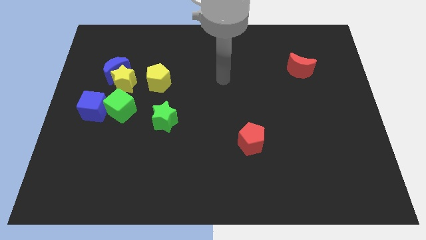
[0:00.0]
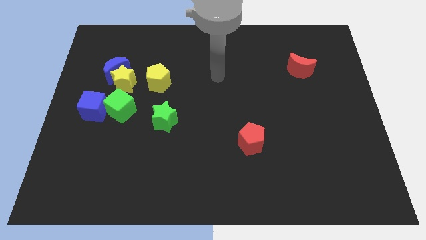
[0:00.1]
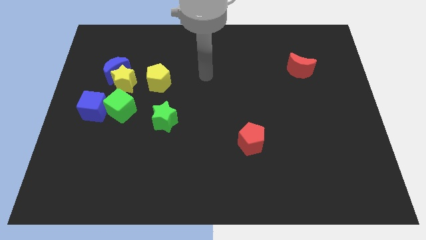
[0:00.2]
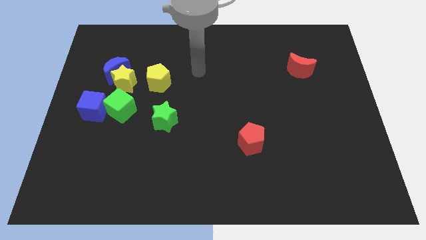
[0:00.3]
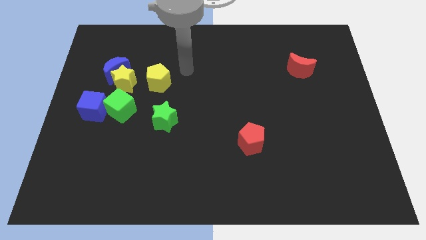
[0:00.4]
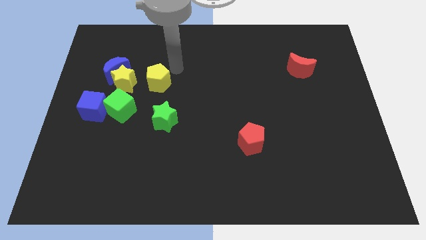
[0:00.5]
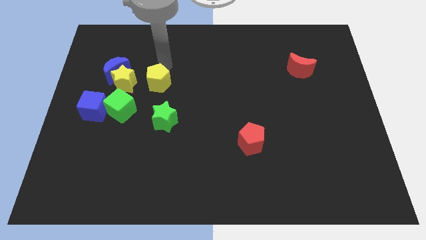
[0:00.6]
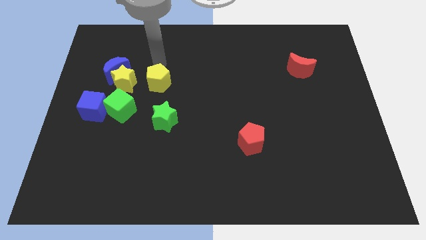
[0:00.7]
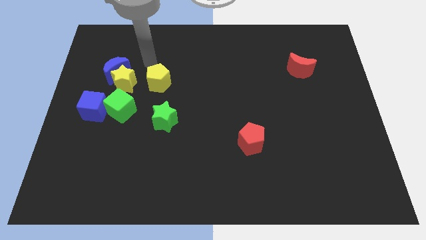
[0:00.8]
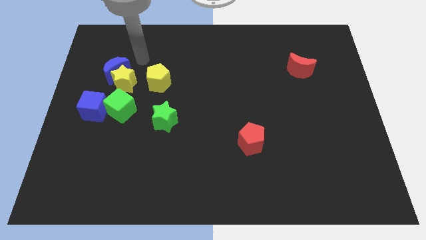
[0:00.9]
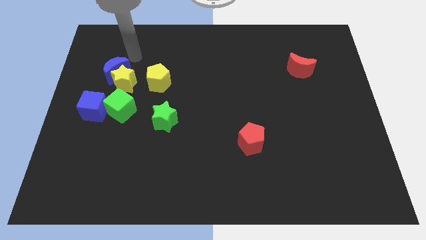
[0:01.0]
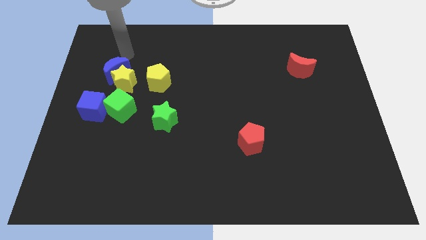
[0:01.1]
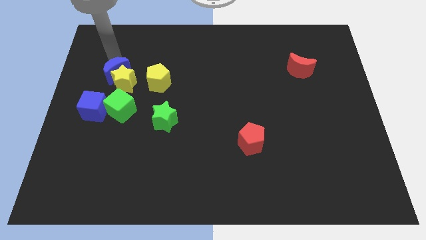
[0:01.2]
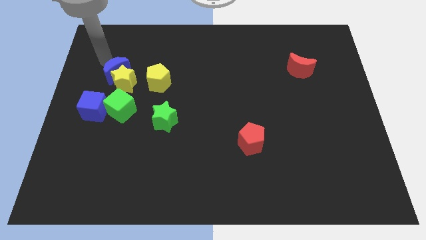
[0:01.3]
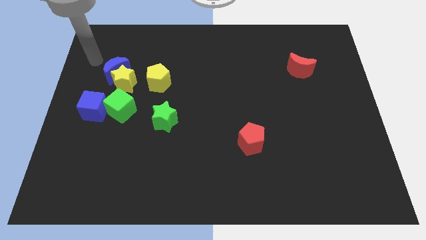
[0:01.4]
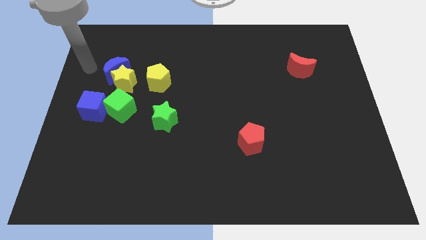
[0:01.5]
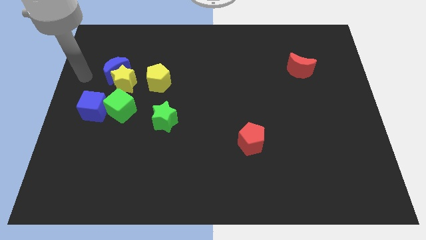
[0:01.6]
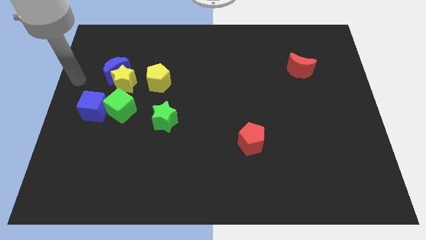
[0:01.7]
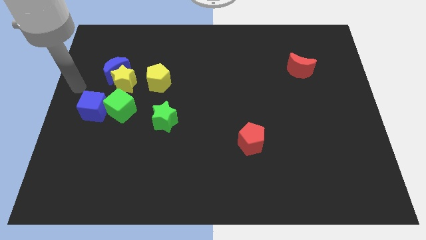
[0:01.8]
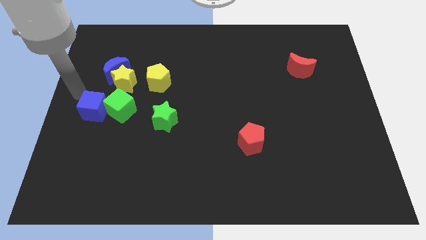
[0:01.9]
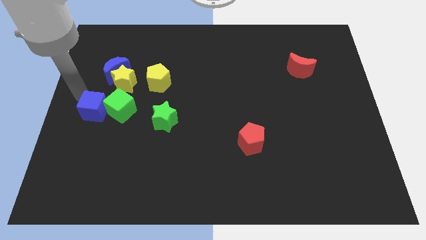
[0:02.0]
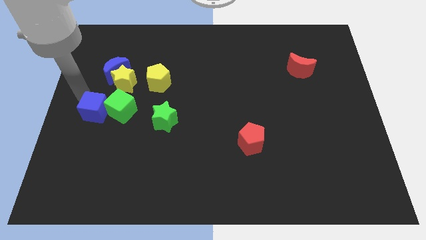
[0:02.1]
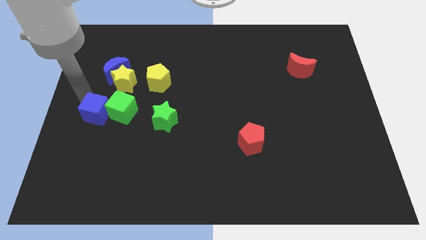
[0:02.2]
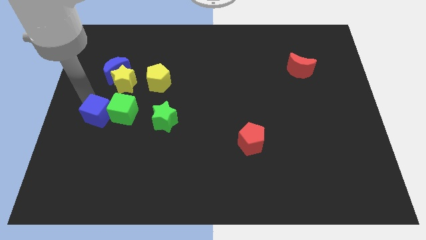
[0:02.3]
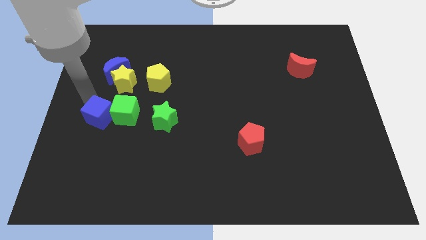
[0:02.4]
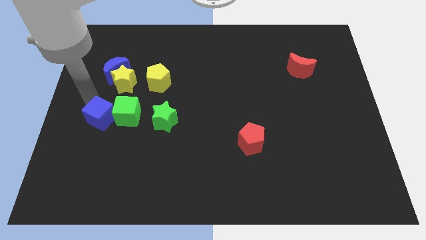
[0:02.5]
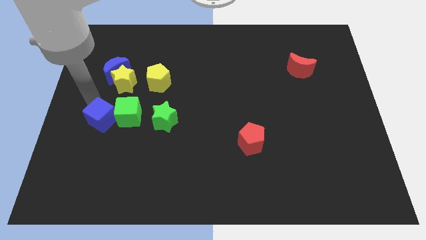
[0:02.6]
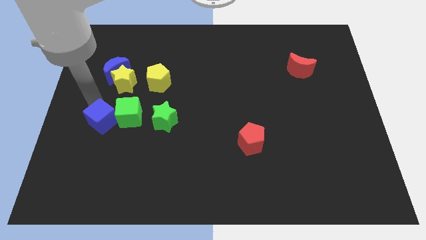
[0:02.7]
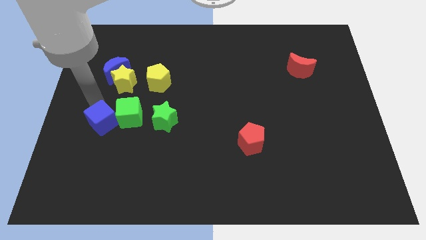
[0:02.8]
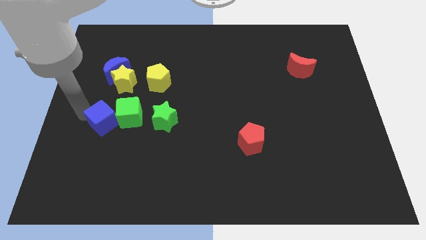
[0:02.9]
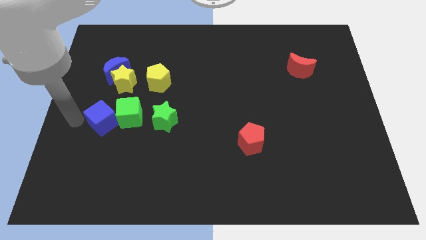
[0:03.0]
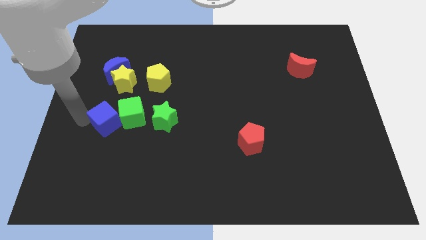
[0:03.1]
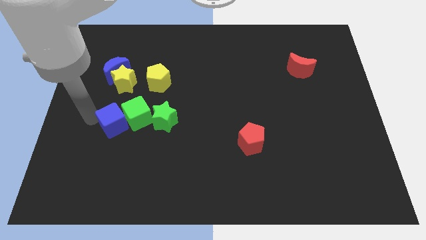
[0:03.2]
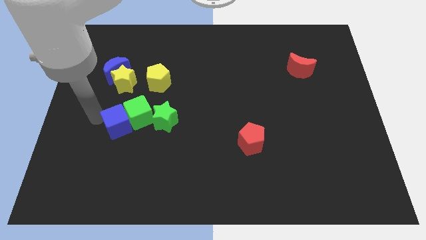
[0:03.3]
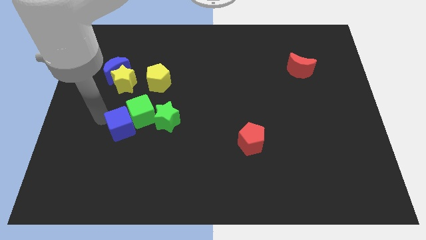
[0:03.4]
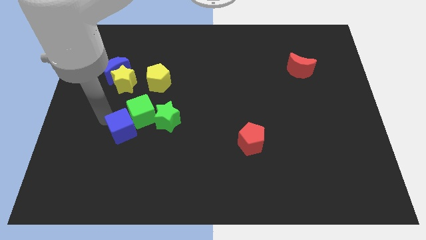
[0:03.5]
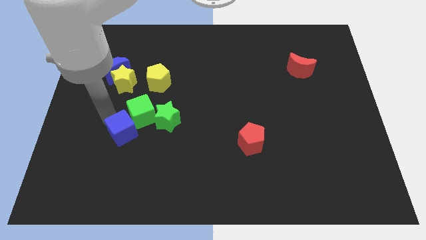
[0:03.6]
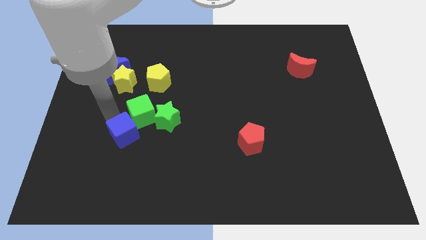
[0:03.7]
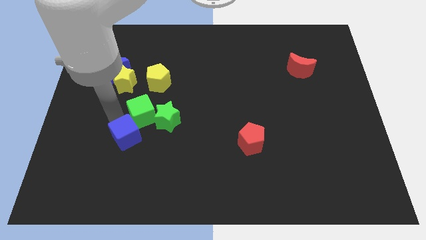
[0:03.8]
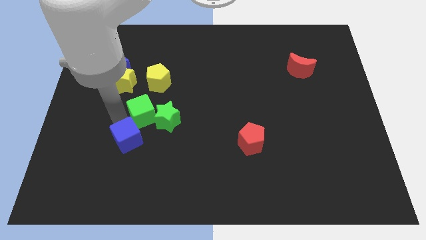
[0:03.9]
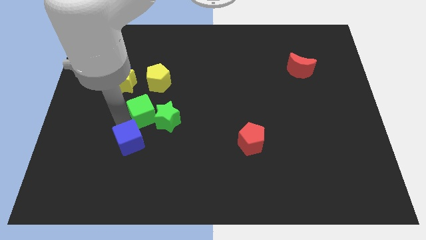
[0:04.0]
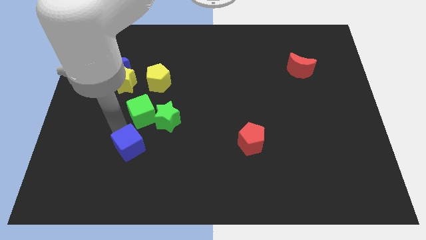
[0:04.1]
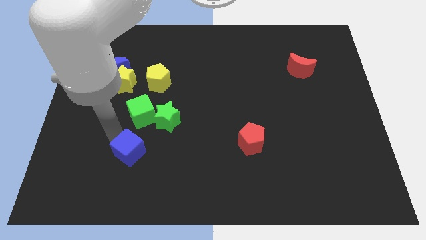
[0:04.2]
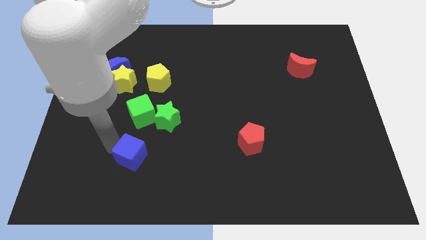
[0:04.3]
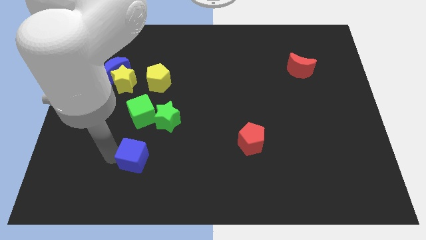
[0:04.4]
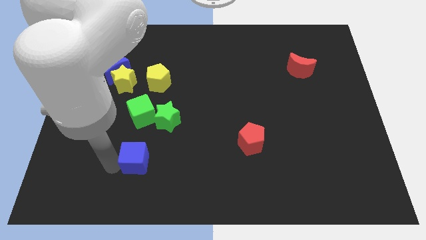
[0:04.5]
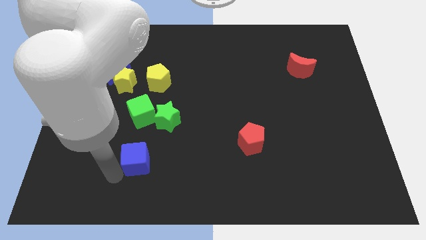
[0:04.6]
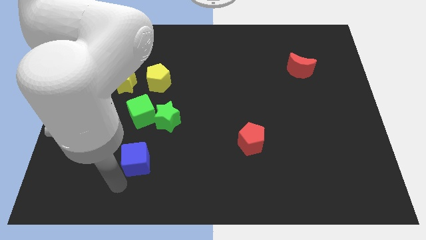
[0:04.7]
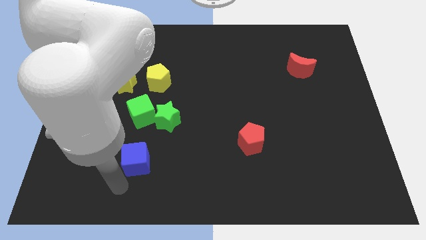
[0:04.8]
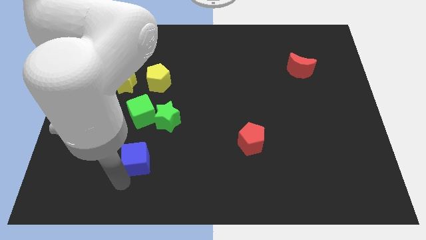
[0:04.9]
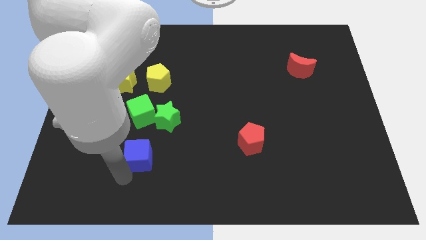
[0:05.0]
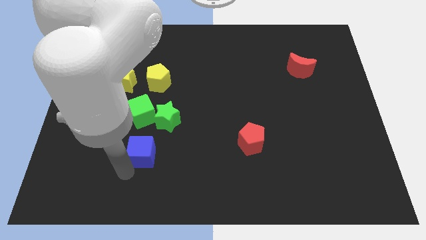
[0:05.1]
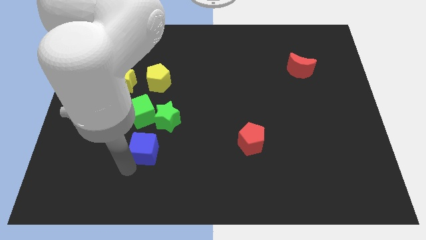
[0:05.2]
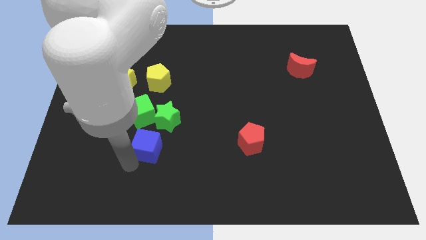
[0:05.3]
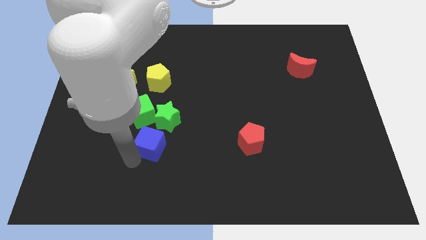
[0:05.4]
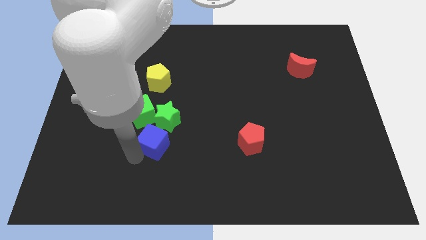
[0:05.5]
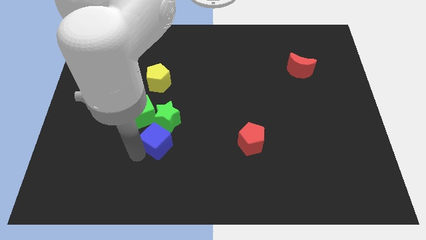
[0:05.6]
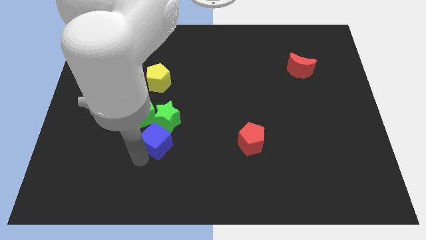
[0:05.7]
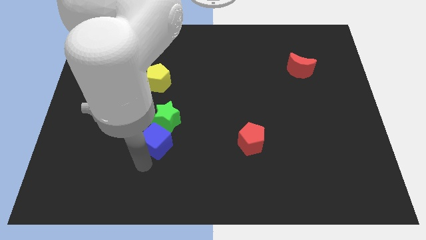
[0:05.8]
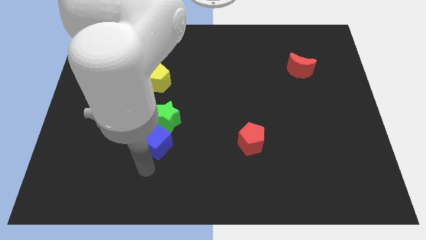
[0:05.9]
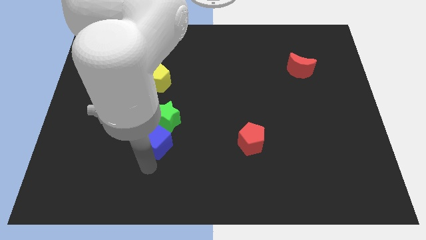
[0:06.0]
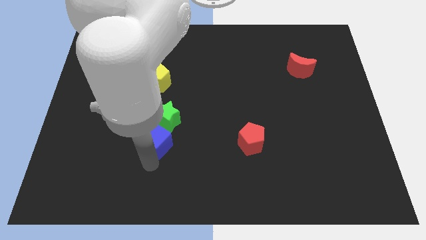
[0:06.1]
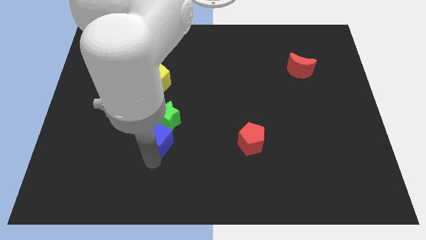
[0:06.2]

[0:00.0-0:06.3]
slide the blue cube towards the green star

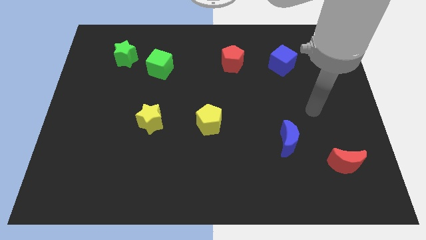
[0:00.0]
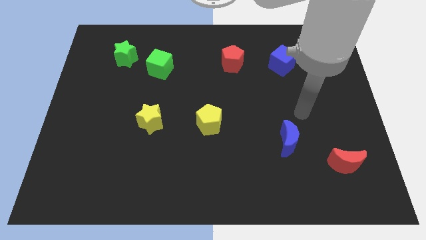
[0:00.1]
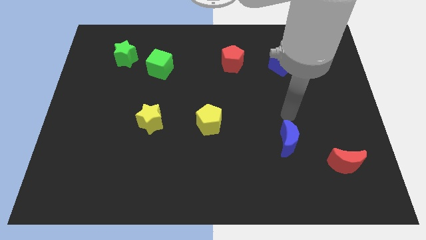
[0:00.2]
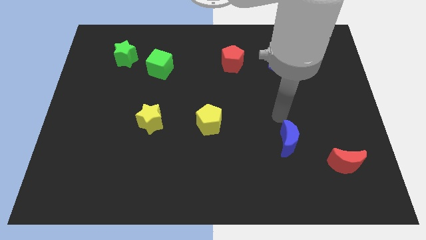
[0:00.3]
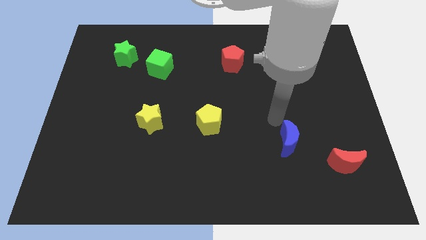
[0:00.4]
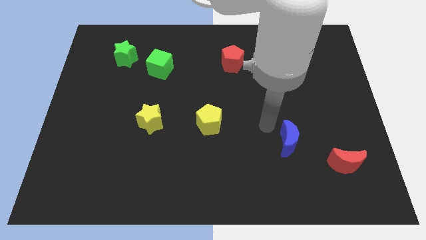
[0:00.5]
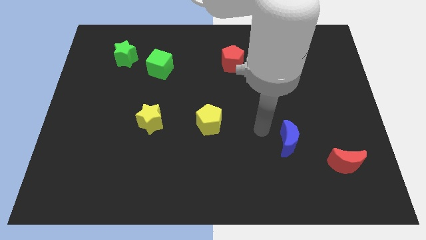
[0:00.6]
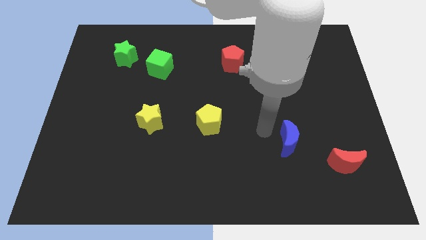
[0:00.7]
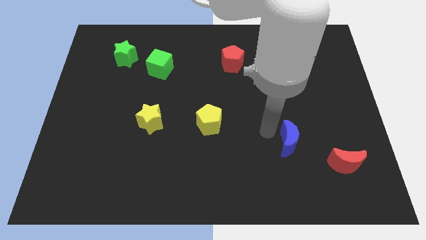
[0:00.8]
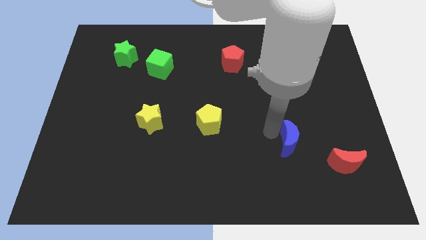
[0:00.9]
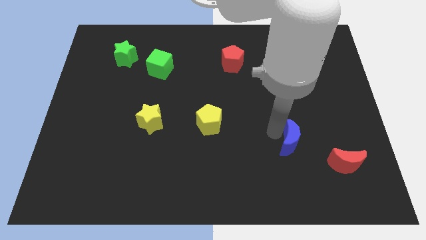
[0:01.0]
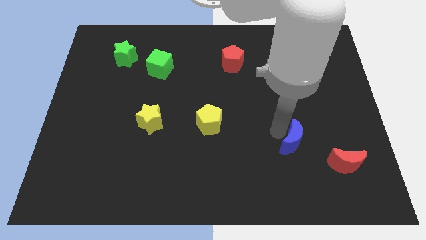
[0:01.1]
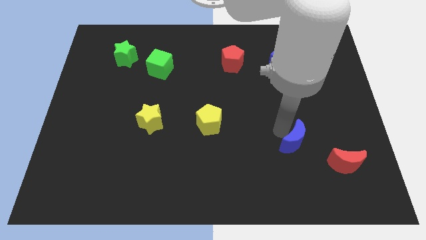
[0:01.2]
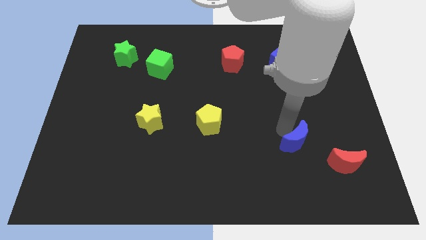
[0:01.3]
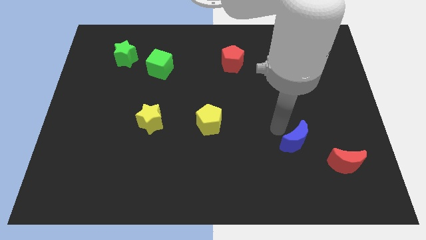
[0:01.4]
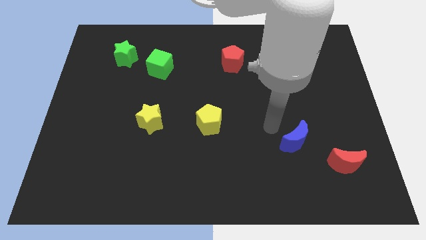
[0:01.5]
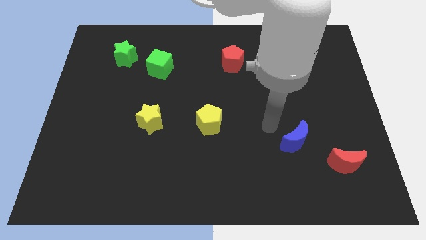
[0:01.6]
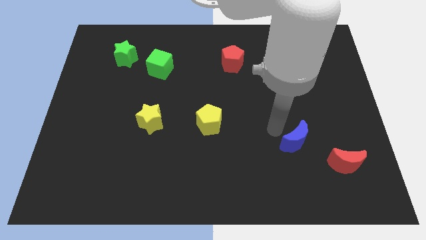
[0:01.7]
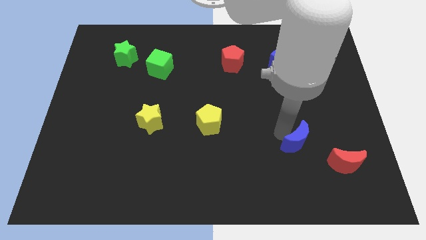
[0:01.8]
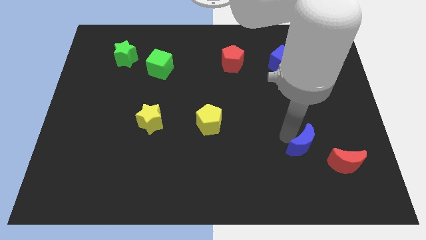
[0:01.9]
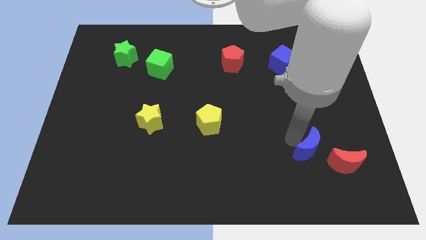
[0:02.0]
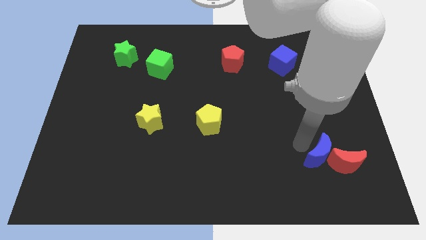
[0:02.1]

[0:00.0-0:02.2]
slide the blue moon close to the red moon
